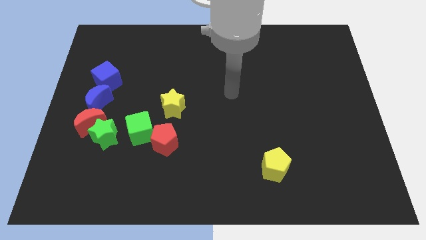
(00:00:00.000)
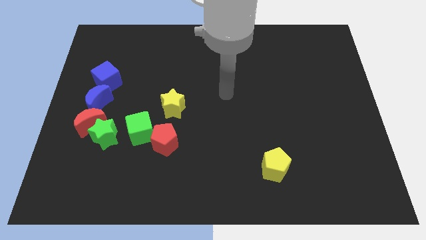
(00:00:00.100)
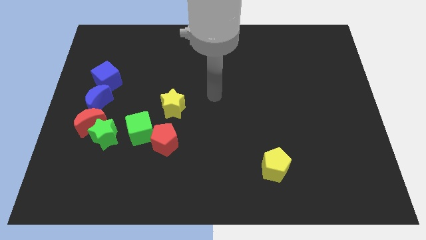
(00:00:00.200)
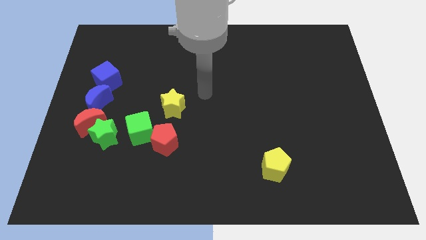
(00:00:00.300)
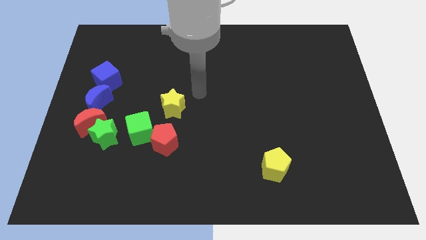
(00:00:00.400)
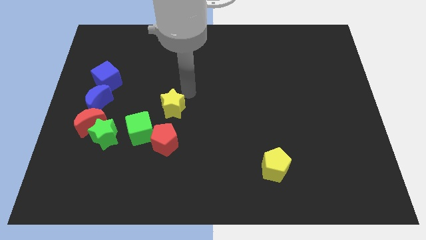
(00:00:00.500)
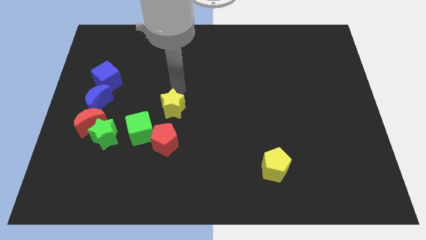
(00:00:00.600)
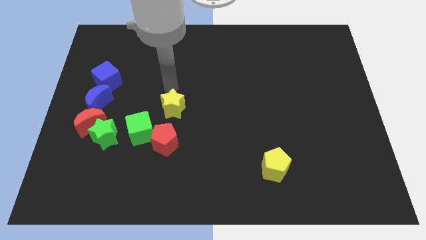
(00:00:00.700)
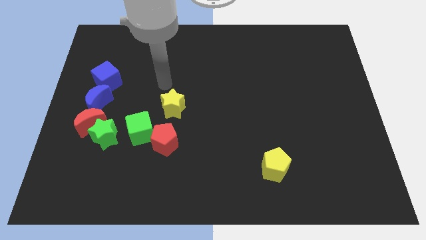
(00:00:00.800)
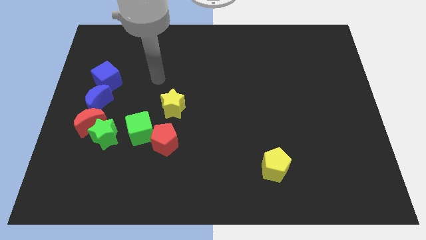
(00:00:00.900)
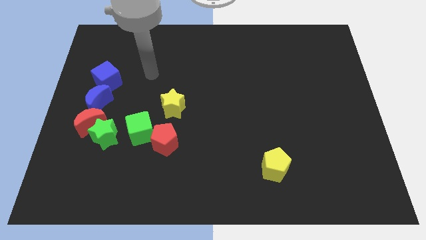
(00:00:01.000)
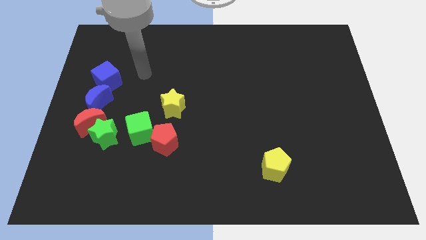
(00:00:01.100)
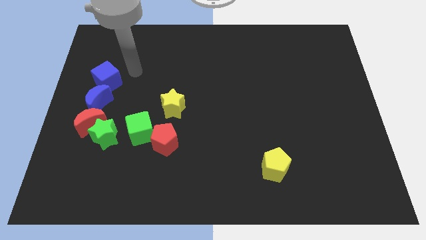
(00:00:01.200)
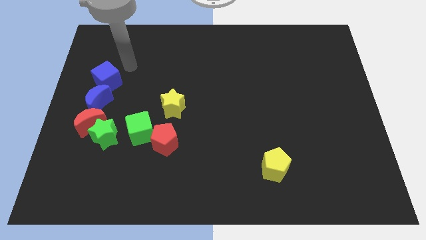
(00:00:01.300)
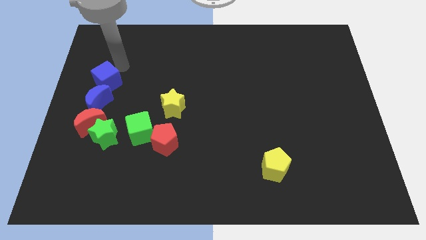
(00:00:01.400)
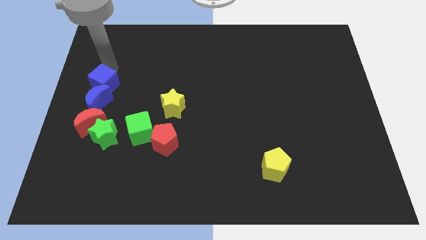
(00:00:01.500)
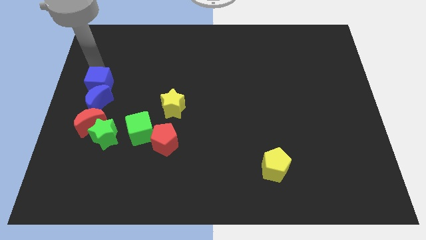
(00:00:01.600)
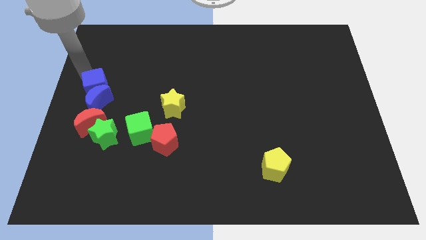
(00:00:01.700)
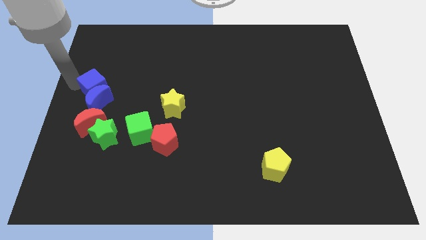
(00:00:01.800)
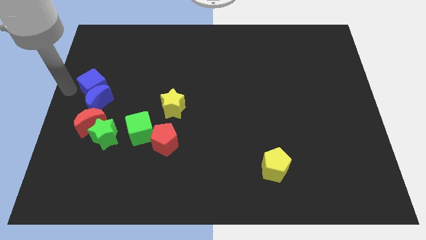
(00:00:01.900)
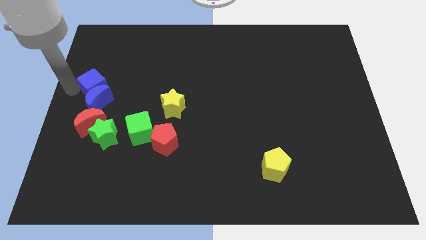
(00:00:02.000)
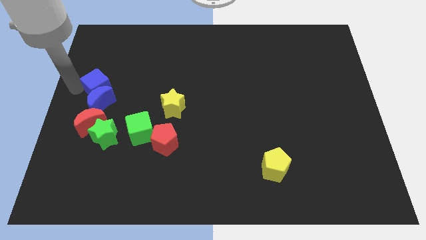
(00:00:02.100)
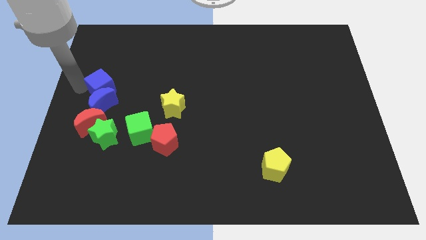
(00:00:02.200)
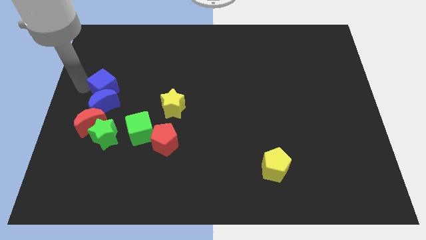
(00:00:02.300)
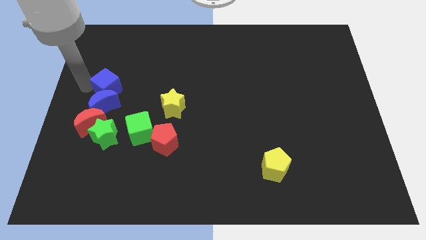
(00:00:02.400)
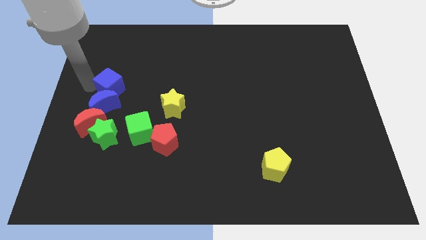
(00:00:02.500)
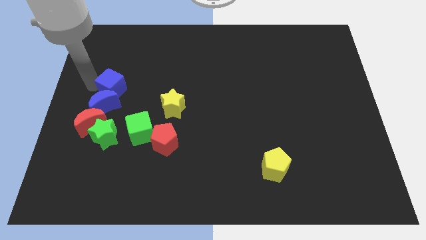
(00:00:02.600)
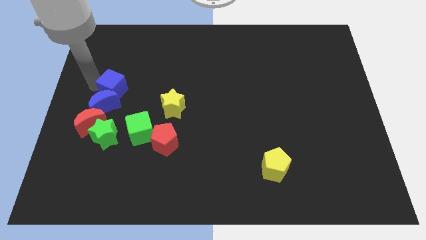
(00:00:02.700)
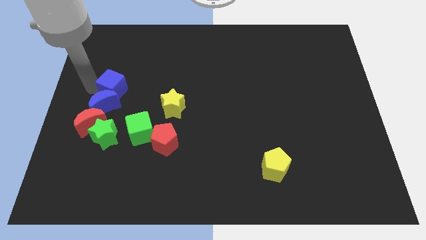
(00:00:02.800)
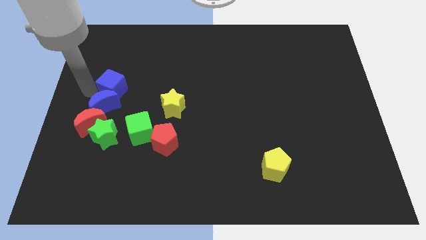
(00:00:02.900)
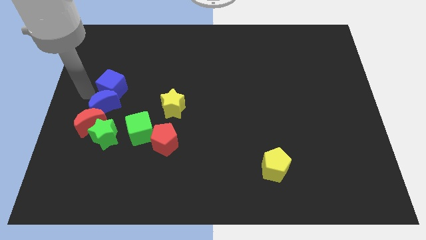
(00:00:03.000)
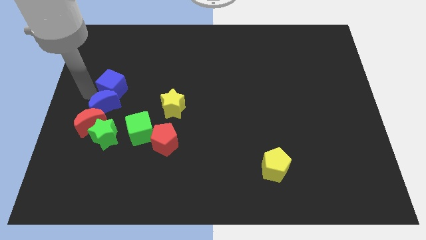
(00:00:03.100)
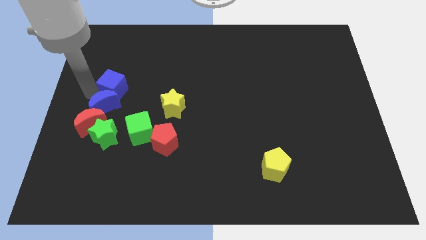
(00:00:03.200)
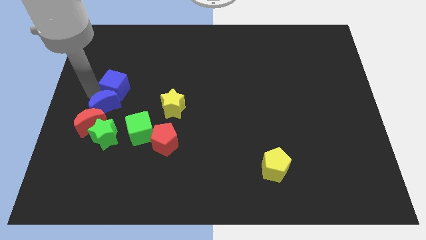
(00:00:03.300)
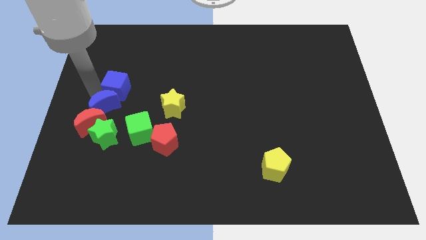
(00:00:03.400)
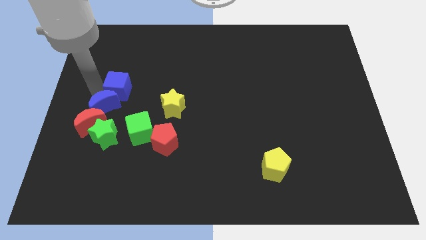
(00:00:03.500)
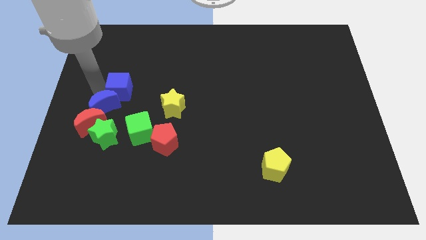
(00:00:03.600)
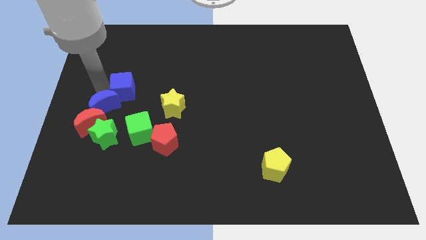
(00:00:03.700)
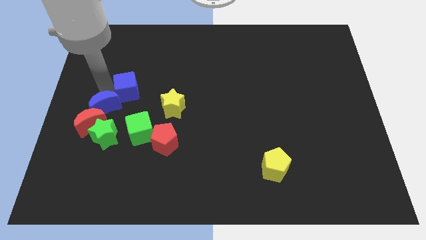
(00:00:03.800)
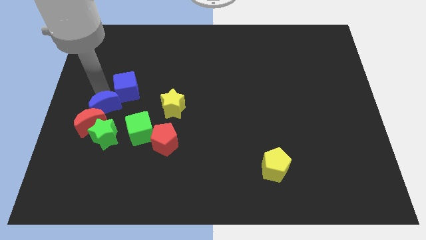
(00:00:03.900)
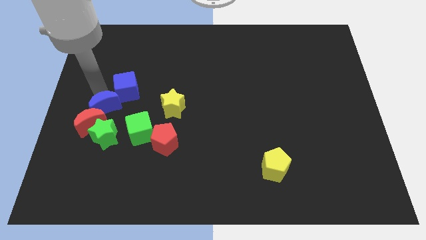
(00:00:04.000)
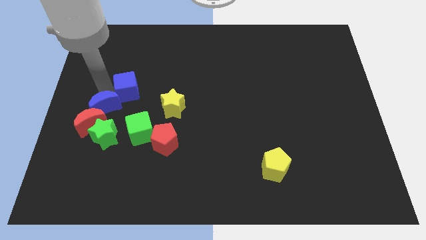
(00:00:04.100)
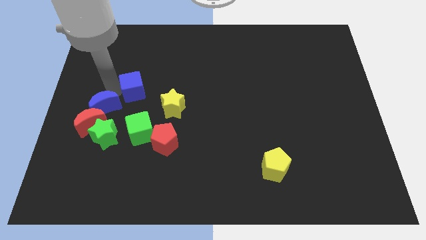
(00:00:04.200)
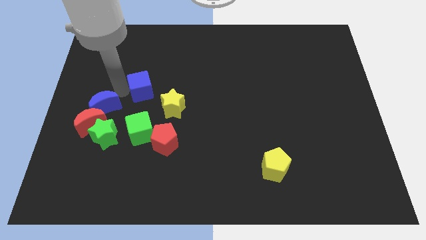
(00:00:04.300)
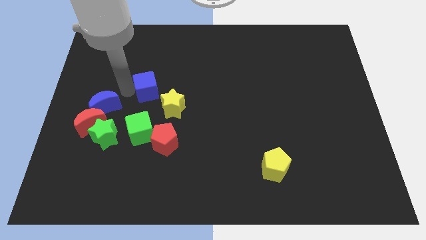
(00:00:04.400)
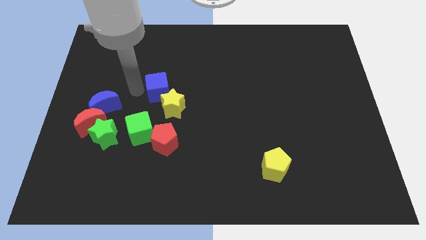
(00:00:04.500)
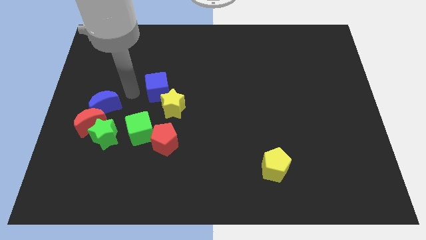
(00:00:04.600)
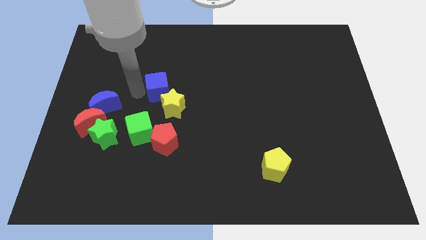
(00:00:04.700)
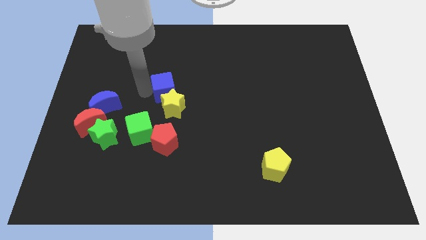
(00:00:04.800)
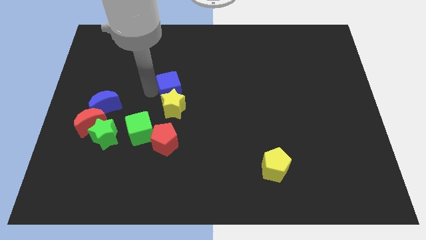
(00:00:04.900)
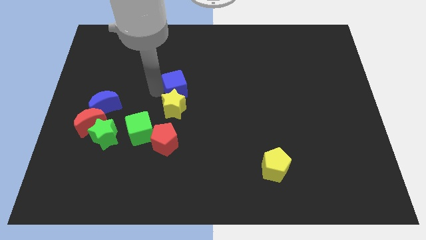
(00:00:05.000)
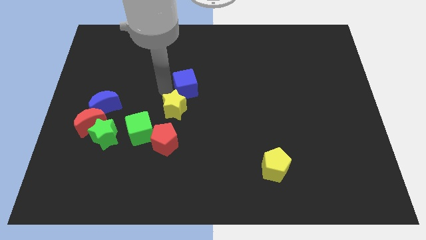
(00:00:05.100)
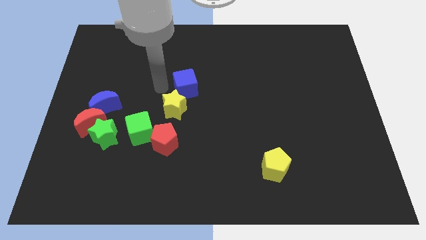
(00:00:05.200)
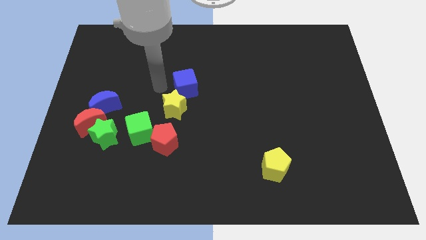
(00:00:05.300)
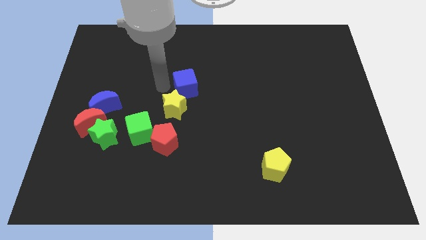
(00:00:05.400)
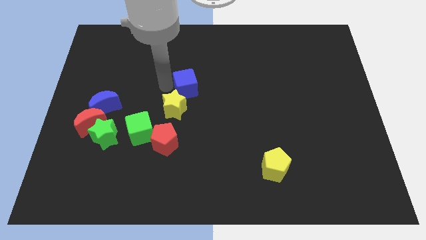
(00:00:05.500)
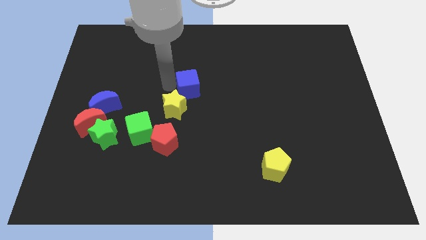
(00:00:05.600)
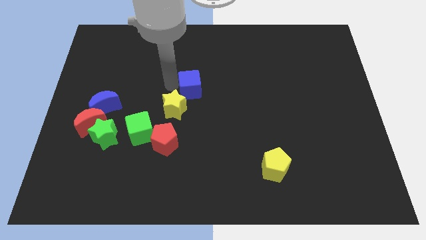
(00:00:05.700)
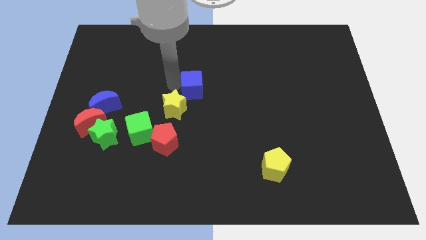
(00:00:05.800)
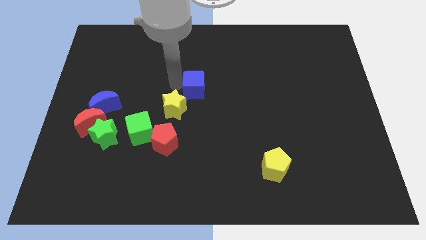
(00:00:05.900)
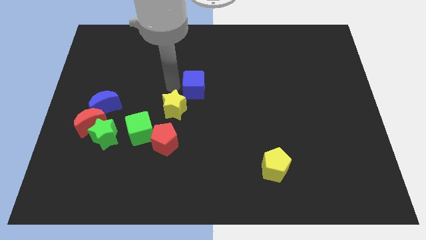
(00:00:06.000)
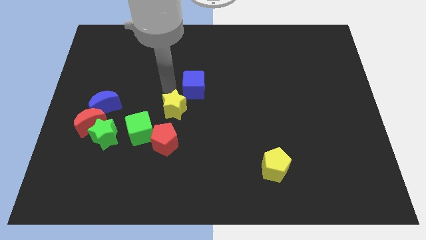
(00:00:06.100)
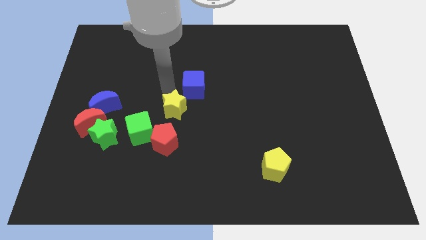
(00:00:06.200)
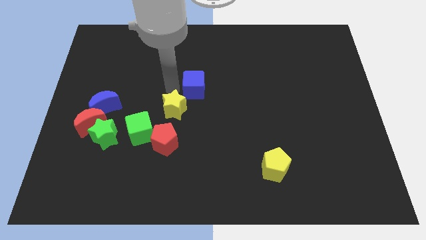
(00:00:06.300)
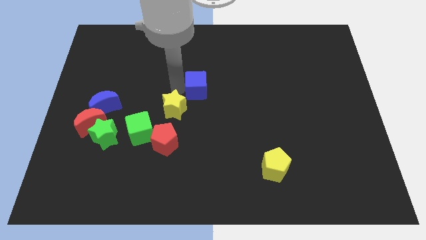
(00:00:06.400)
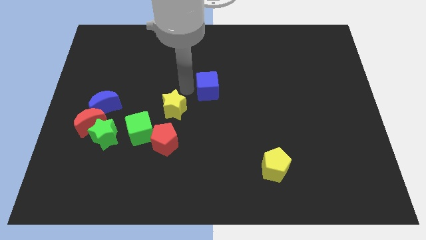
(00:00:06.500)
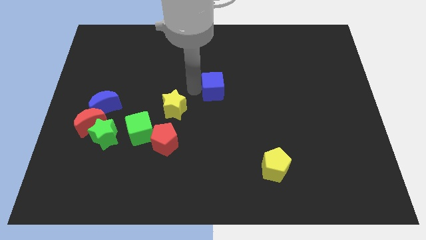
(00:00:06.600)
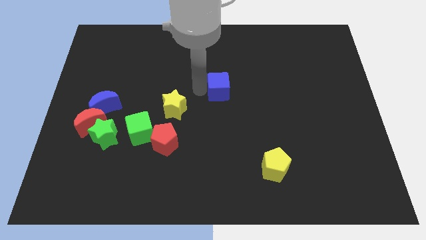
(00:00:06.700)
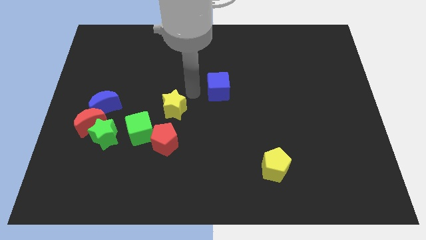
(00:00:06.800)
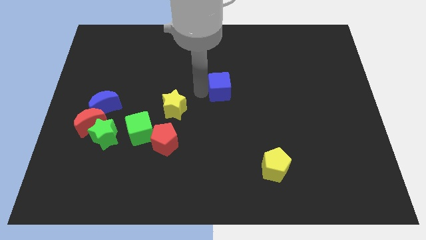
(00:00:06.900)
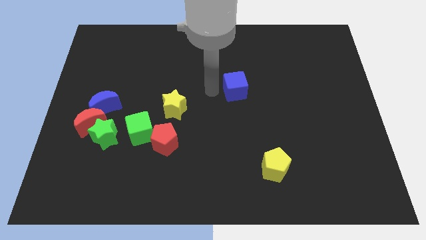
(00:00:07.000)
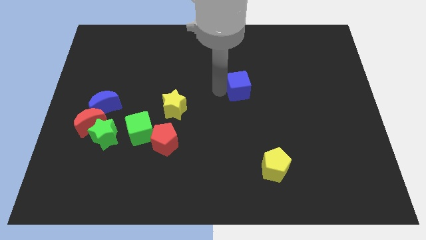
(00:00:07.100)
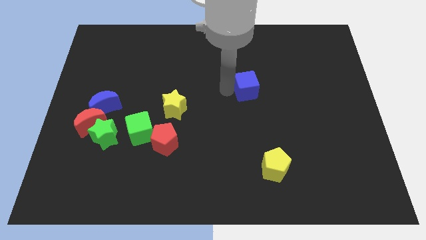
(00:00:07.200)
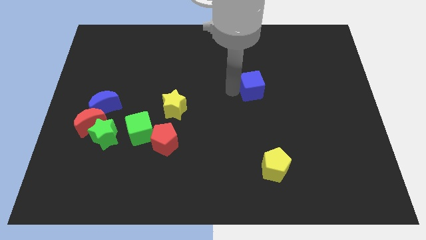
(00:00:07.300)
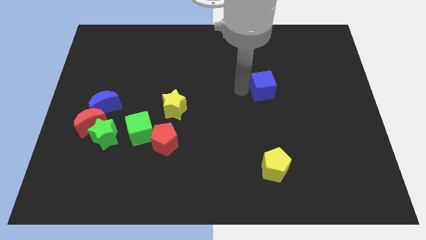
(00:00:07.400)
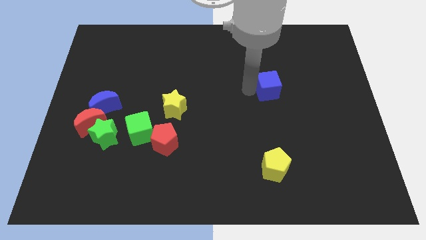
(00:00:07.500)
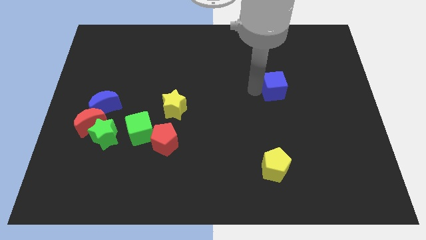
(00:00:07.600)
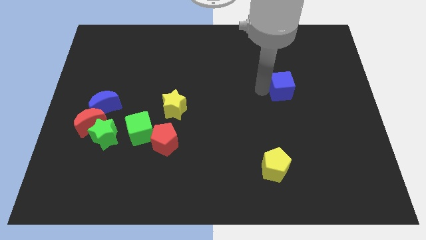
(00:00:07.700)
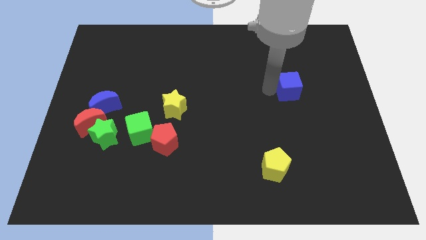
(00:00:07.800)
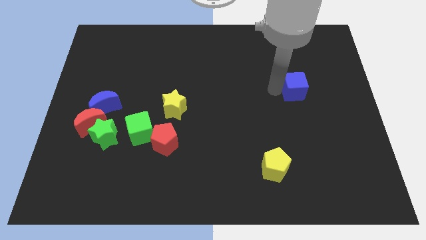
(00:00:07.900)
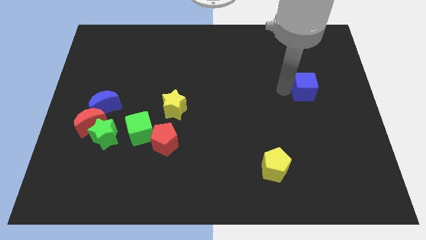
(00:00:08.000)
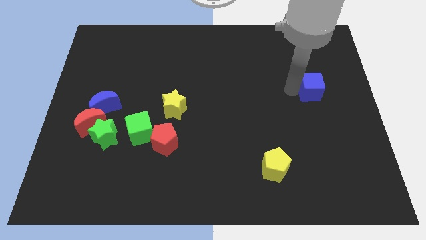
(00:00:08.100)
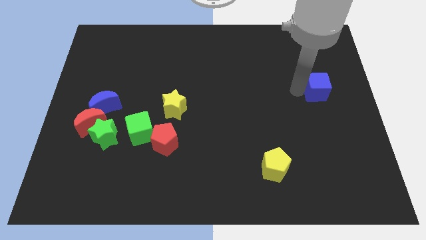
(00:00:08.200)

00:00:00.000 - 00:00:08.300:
put the blue cube to the right side
